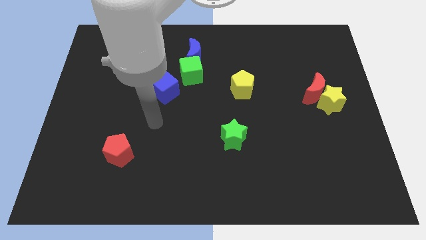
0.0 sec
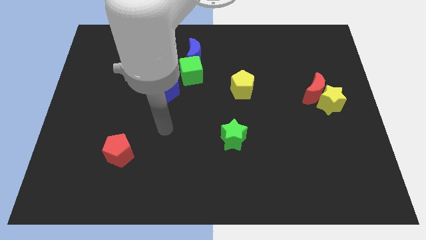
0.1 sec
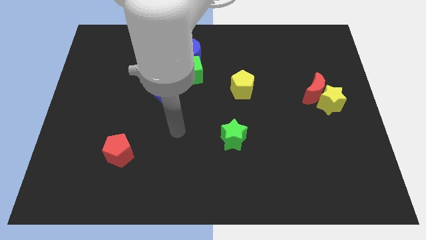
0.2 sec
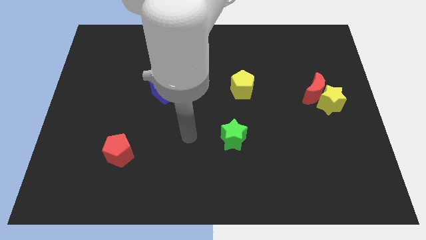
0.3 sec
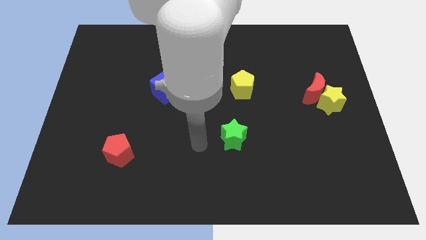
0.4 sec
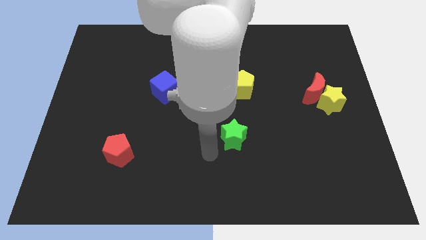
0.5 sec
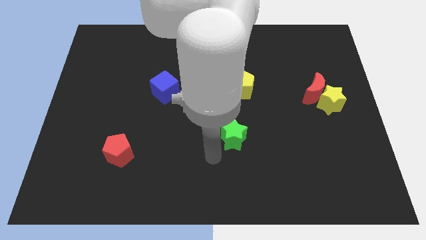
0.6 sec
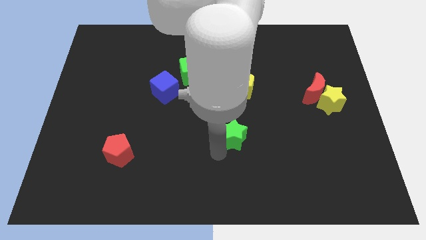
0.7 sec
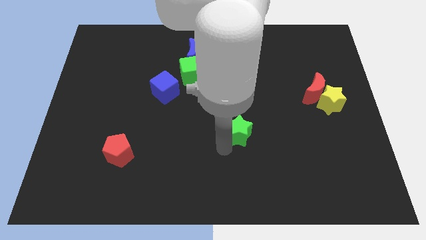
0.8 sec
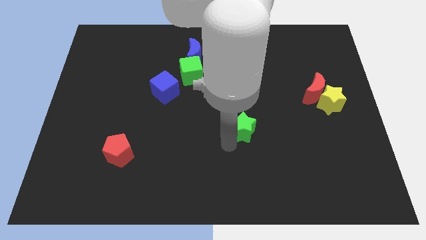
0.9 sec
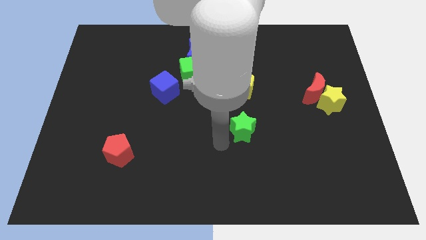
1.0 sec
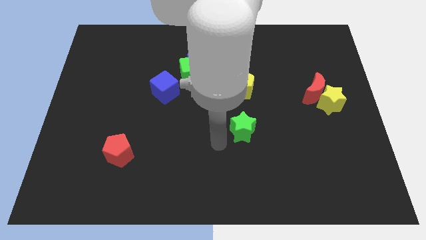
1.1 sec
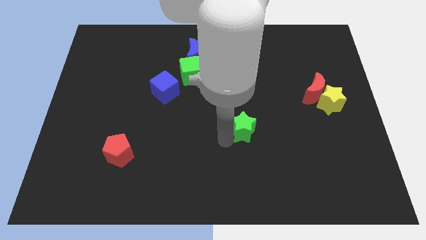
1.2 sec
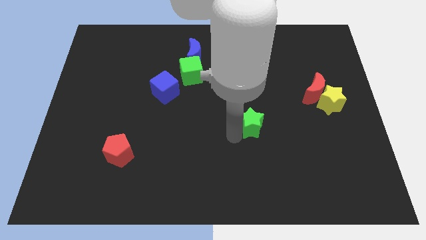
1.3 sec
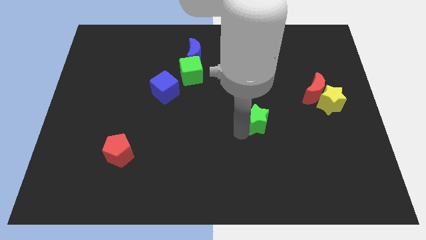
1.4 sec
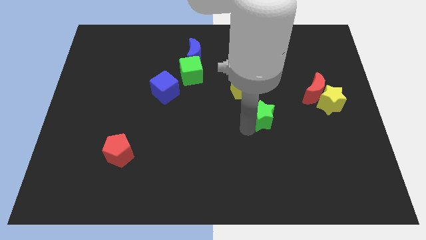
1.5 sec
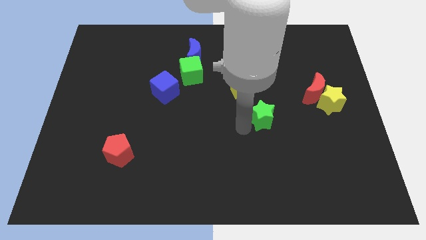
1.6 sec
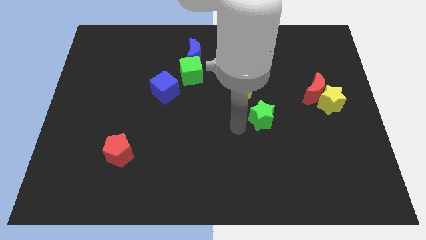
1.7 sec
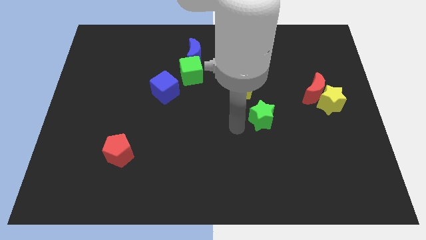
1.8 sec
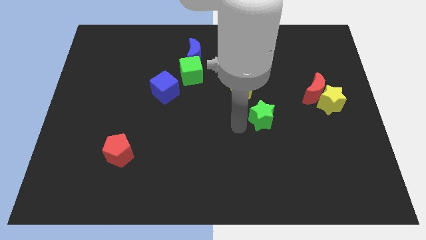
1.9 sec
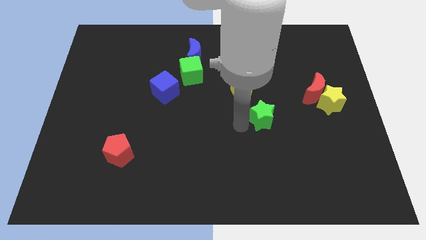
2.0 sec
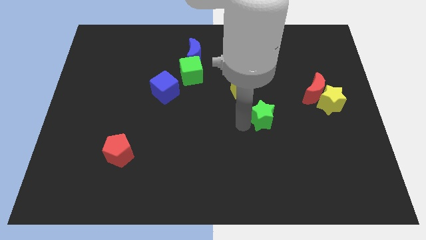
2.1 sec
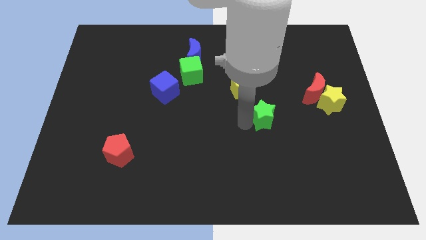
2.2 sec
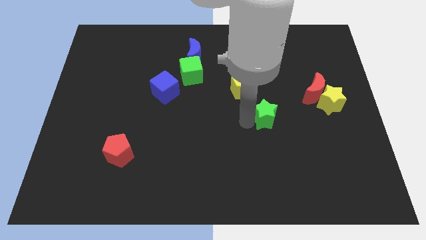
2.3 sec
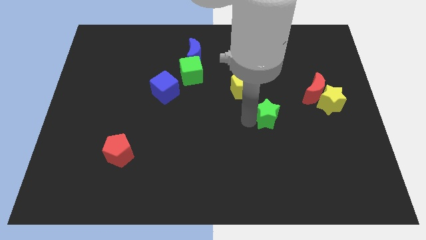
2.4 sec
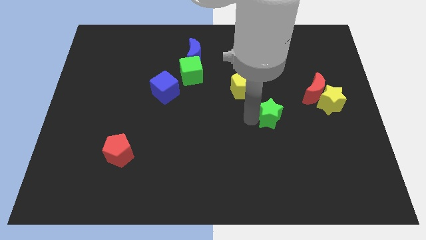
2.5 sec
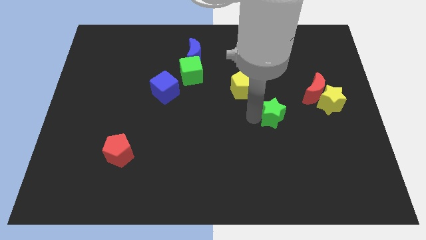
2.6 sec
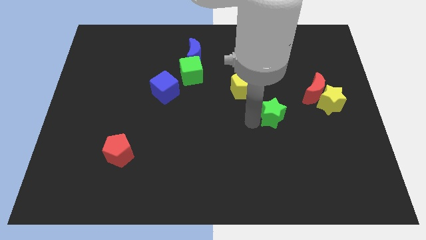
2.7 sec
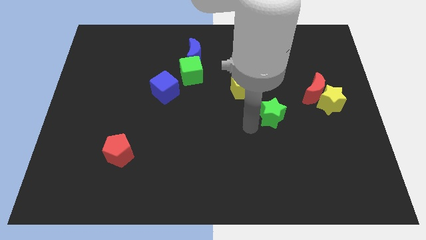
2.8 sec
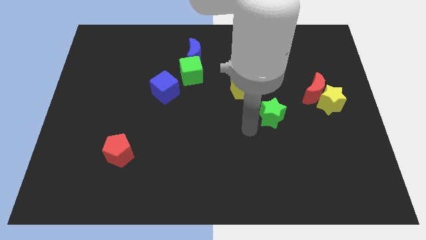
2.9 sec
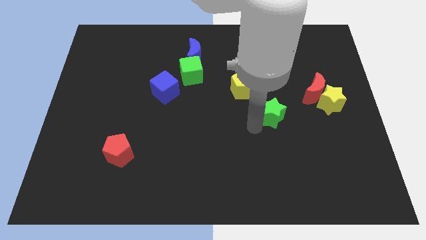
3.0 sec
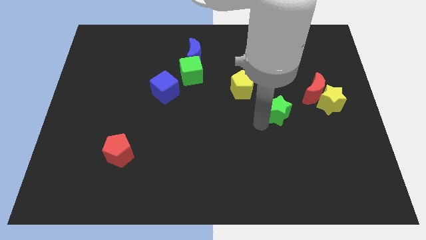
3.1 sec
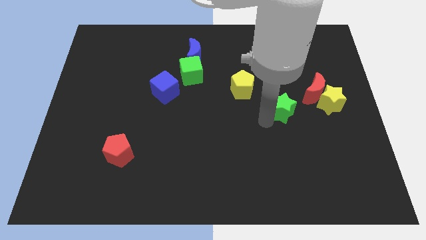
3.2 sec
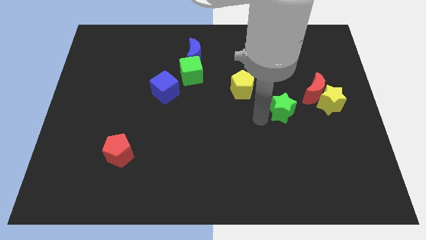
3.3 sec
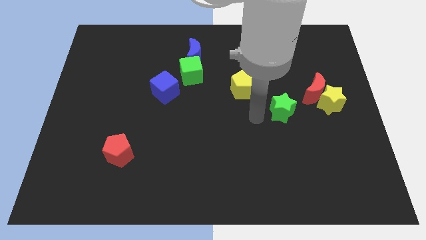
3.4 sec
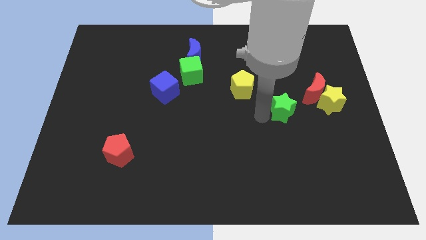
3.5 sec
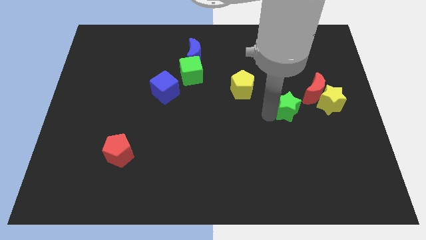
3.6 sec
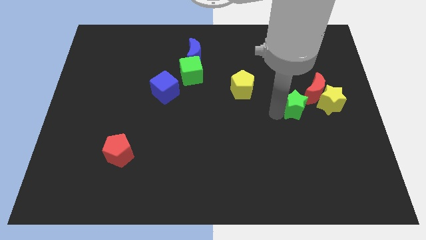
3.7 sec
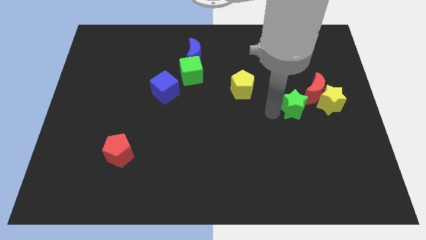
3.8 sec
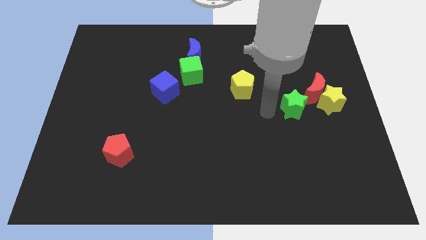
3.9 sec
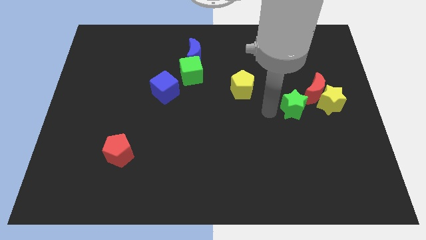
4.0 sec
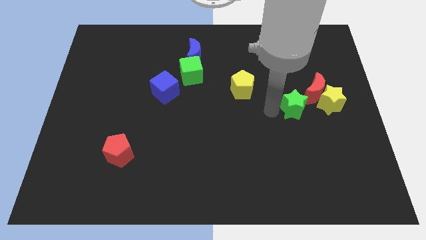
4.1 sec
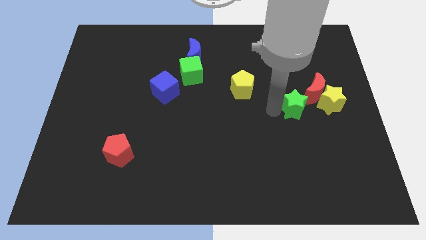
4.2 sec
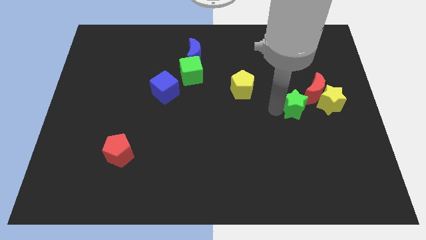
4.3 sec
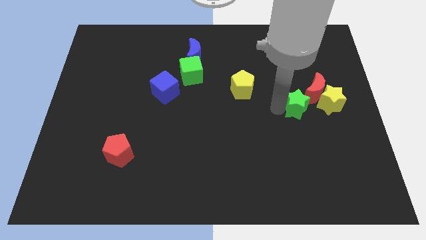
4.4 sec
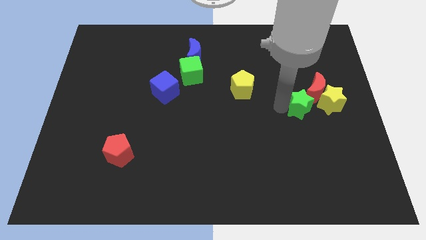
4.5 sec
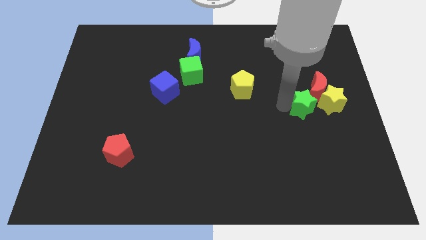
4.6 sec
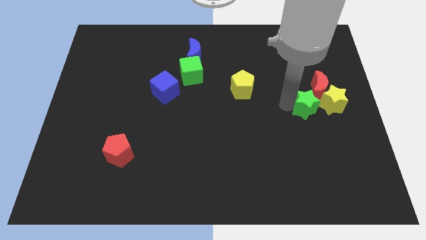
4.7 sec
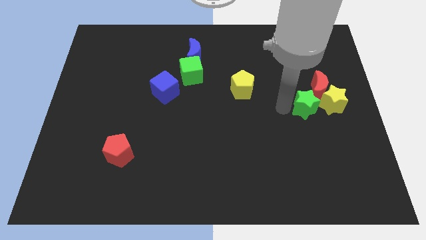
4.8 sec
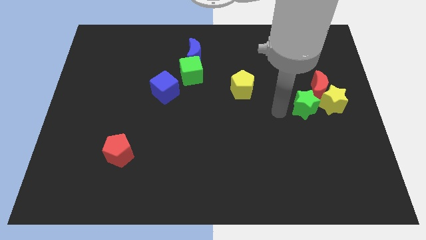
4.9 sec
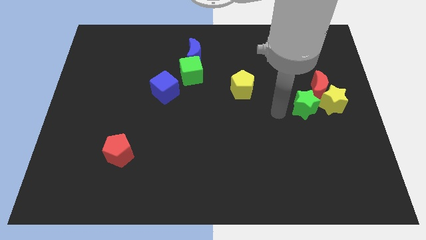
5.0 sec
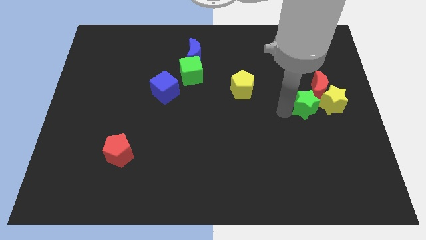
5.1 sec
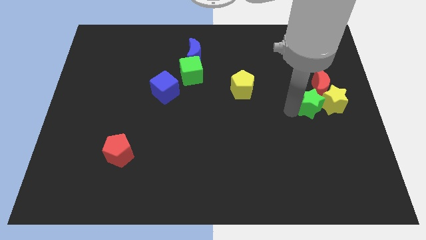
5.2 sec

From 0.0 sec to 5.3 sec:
slide the green star close to the yellow star
